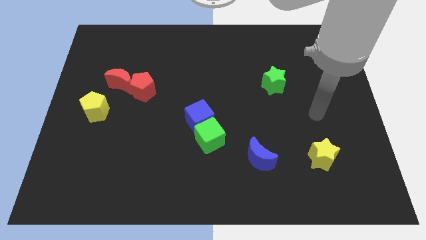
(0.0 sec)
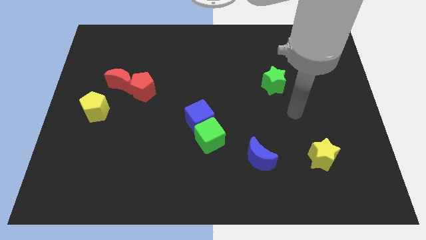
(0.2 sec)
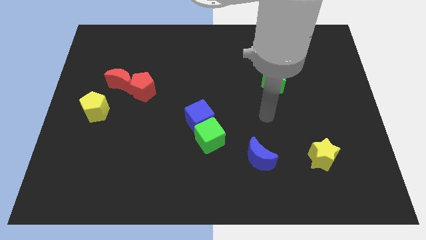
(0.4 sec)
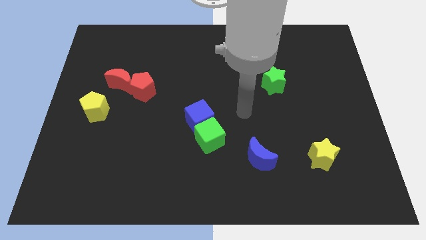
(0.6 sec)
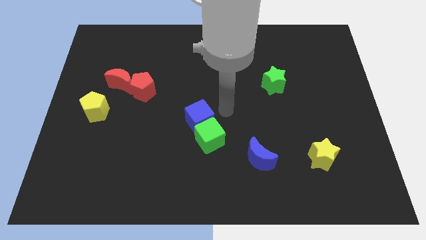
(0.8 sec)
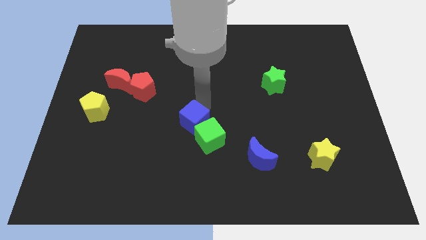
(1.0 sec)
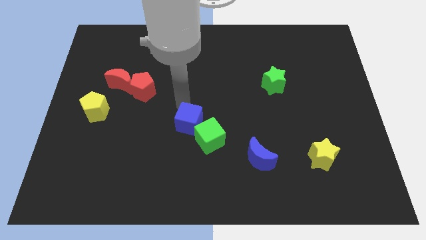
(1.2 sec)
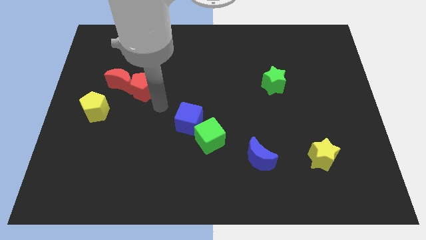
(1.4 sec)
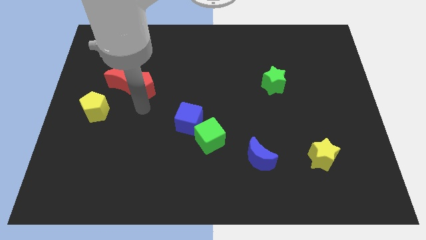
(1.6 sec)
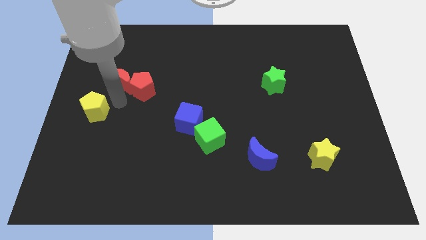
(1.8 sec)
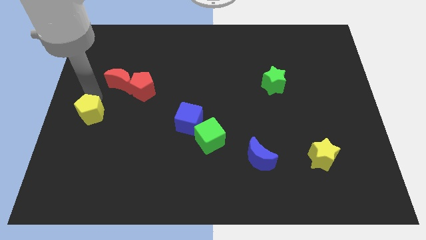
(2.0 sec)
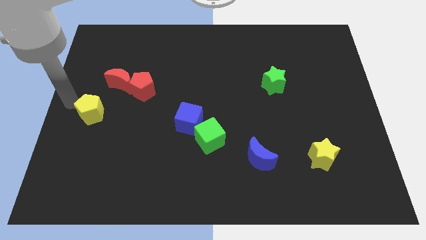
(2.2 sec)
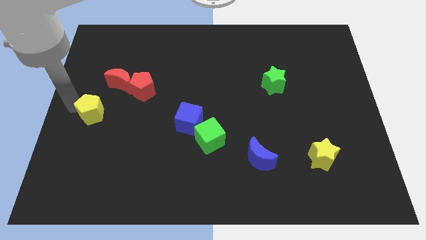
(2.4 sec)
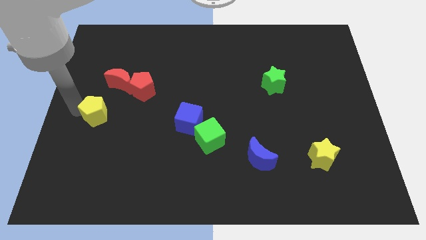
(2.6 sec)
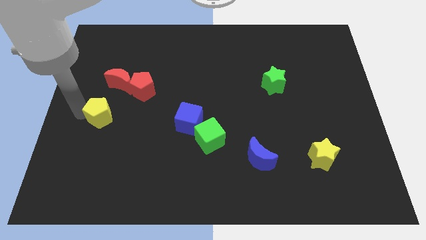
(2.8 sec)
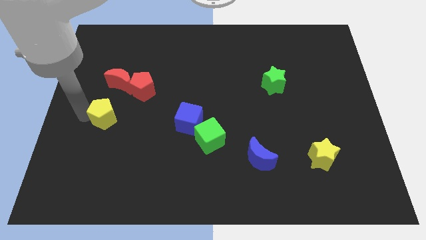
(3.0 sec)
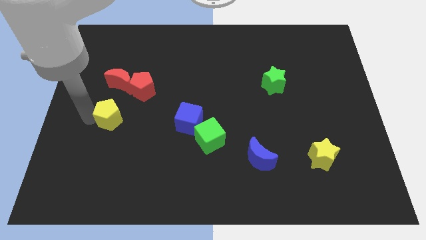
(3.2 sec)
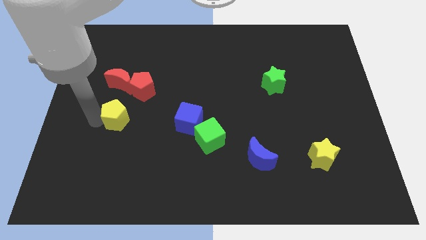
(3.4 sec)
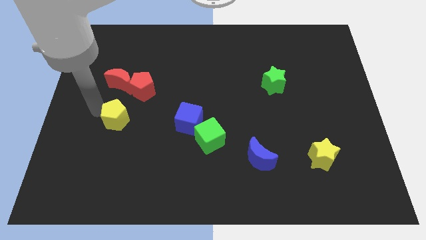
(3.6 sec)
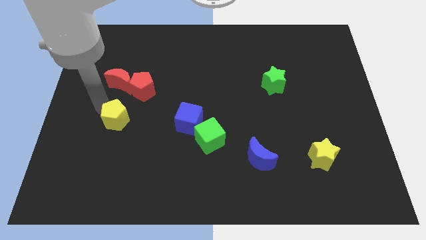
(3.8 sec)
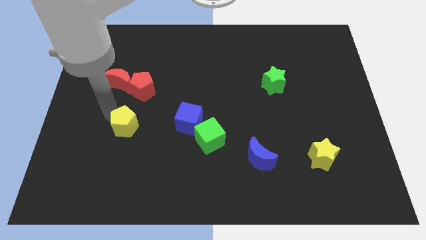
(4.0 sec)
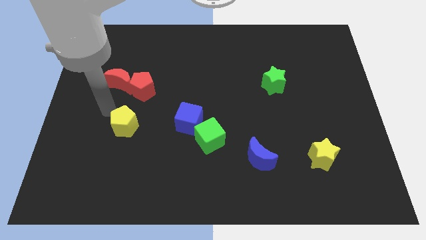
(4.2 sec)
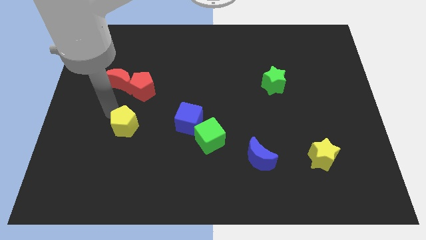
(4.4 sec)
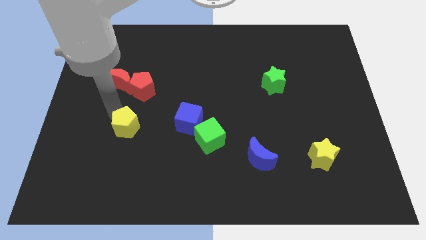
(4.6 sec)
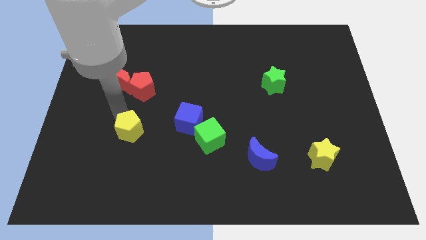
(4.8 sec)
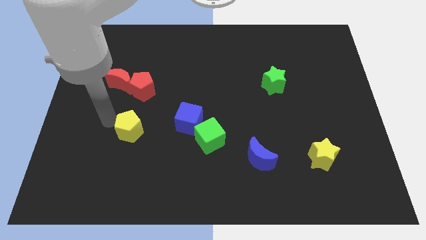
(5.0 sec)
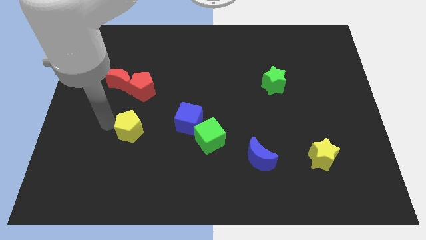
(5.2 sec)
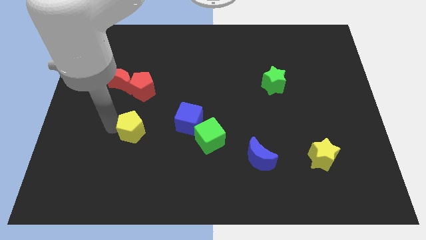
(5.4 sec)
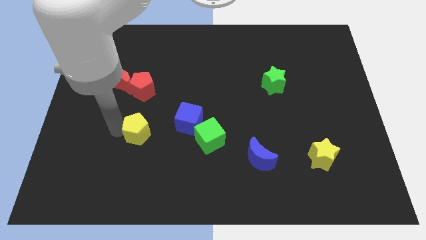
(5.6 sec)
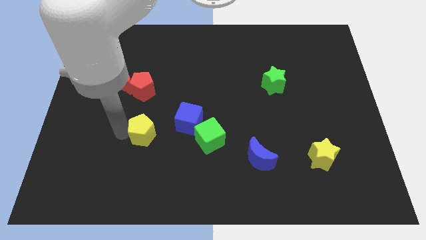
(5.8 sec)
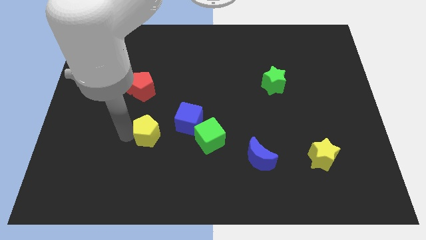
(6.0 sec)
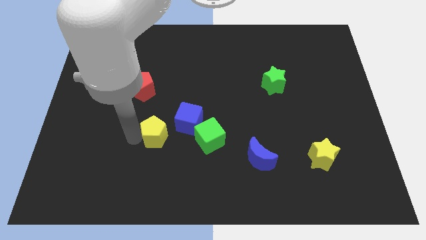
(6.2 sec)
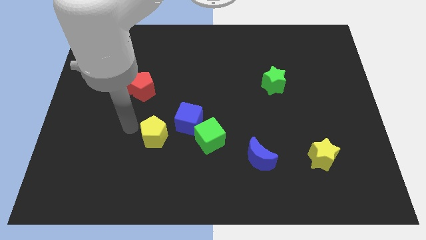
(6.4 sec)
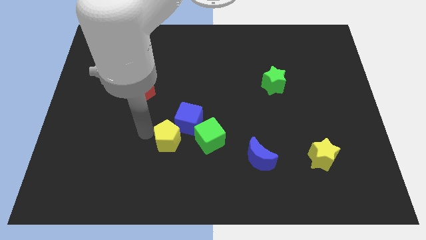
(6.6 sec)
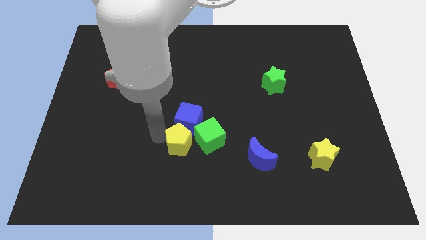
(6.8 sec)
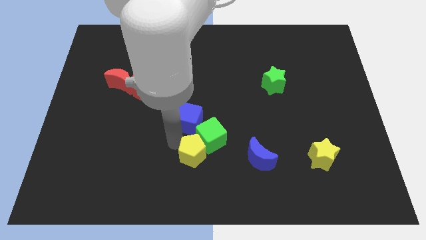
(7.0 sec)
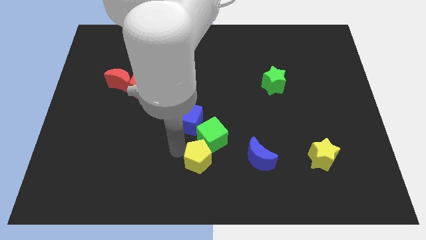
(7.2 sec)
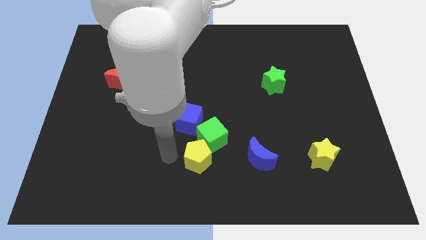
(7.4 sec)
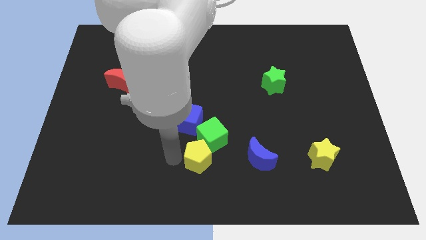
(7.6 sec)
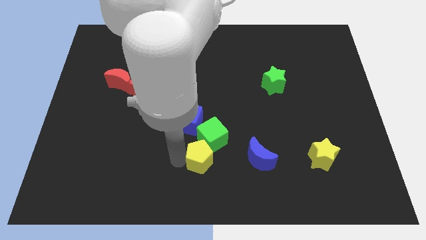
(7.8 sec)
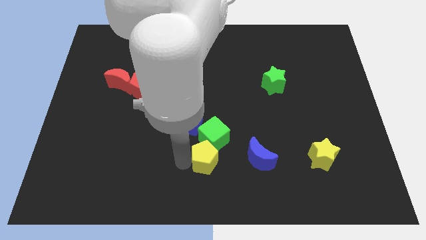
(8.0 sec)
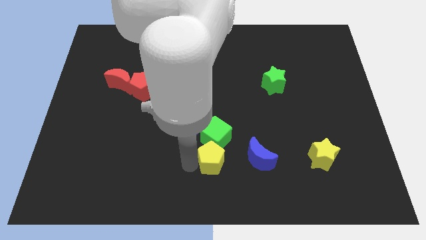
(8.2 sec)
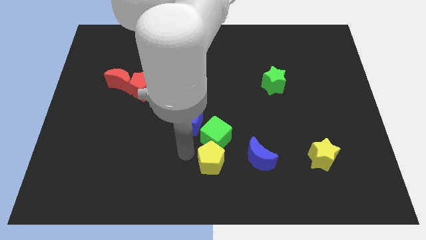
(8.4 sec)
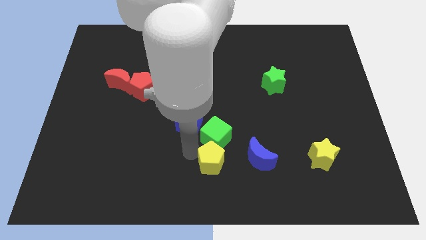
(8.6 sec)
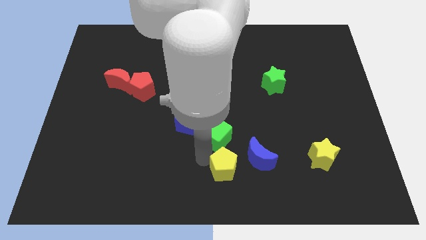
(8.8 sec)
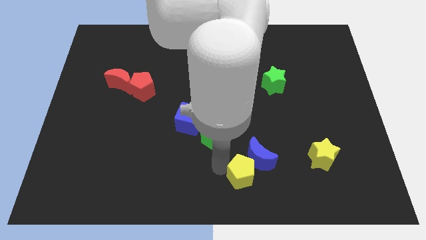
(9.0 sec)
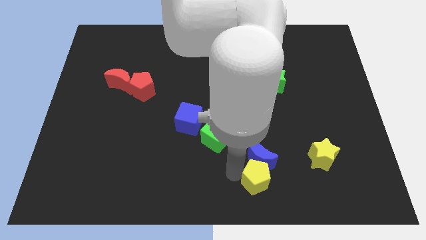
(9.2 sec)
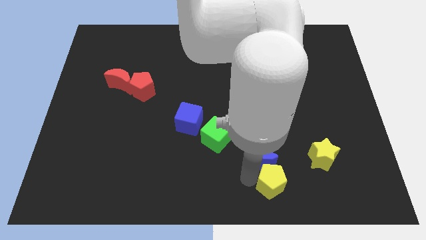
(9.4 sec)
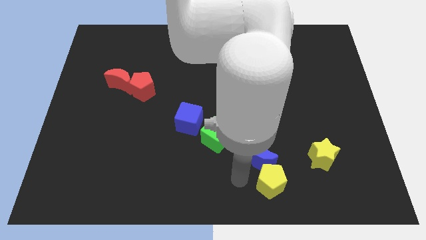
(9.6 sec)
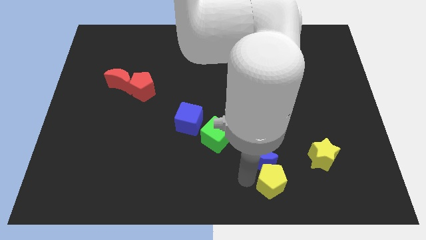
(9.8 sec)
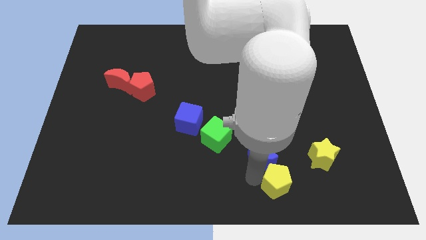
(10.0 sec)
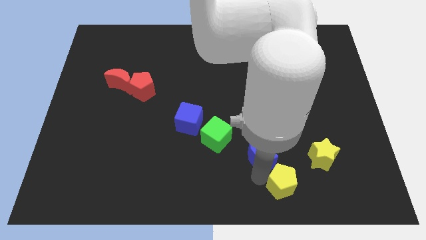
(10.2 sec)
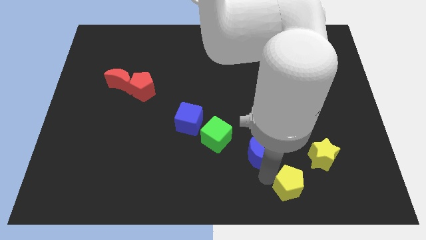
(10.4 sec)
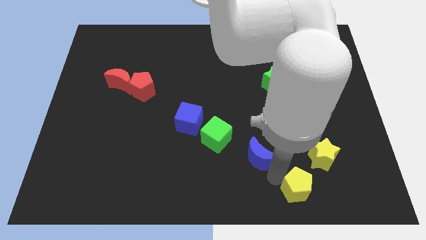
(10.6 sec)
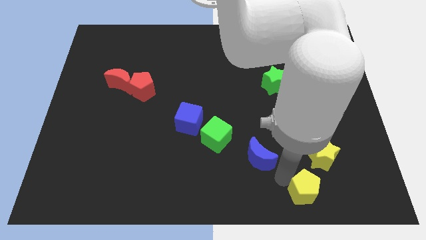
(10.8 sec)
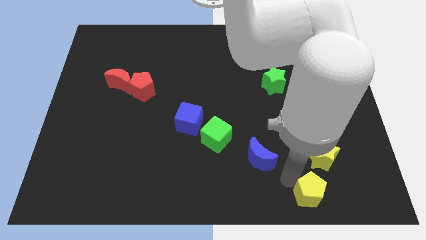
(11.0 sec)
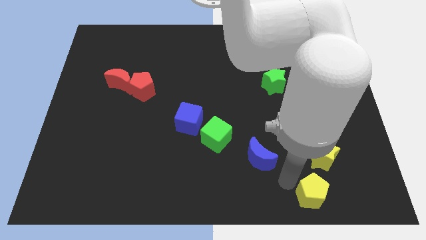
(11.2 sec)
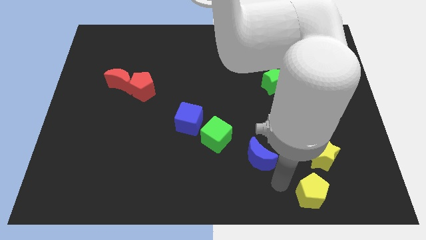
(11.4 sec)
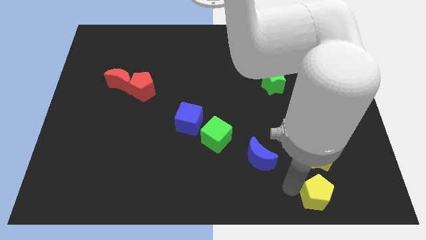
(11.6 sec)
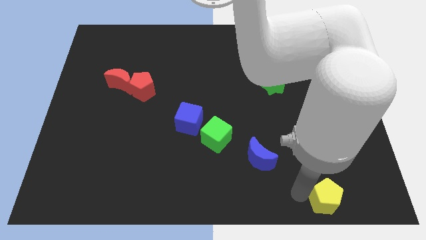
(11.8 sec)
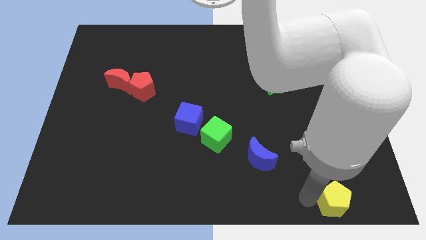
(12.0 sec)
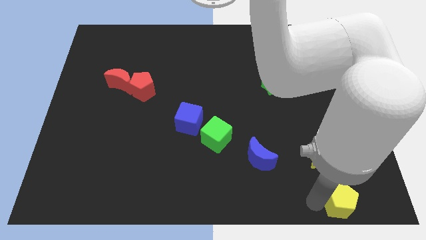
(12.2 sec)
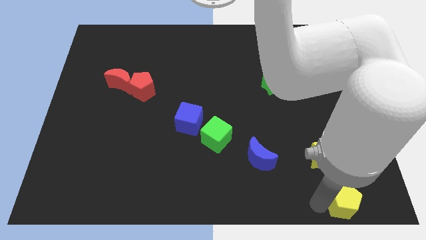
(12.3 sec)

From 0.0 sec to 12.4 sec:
put the yellow pentagon to the bottom right

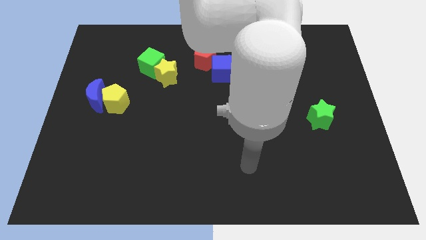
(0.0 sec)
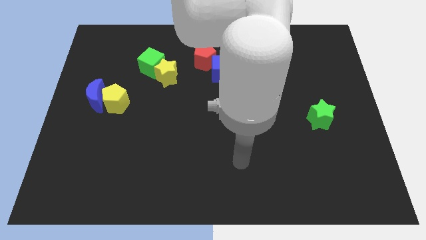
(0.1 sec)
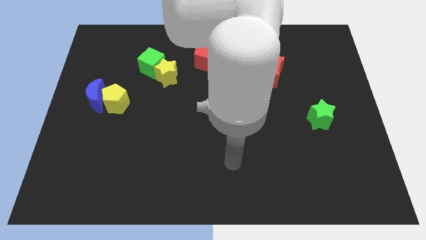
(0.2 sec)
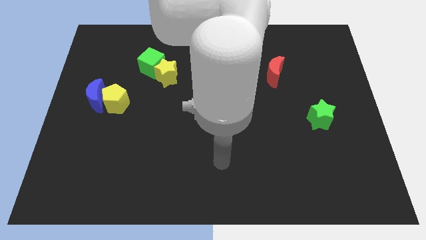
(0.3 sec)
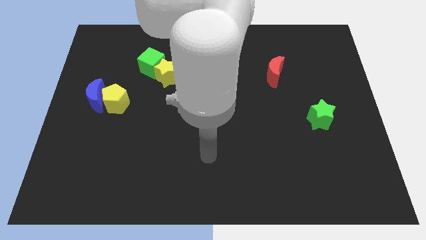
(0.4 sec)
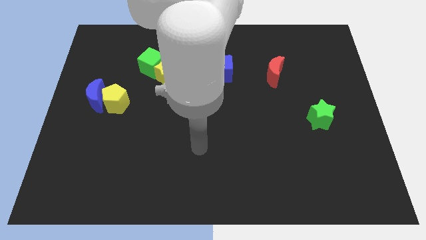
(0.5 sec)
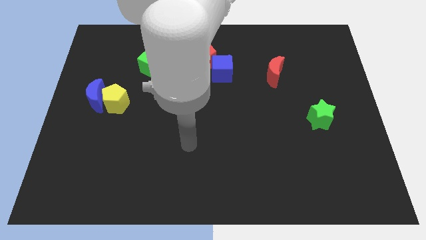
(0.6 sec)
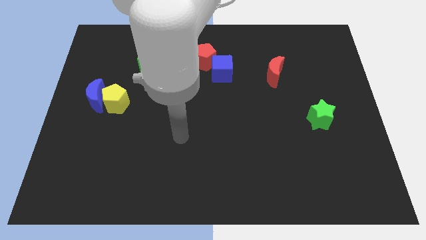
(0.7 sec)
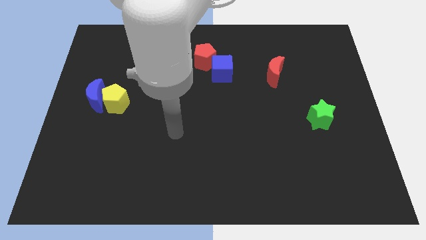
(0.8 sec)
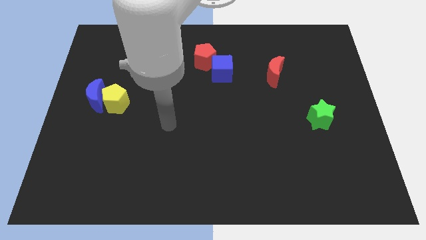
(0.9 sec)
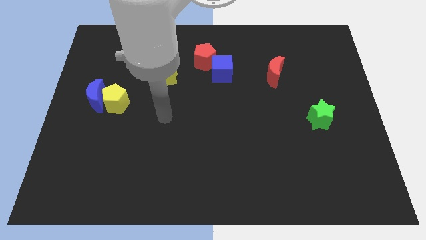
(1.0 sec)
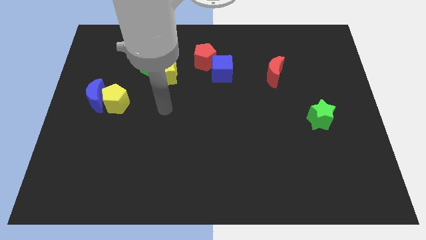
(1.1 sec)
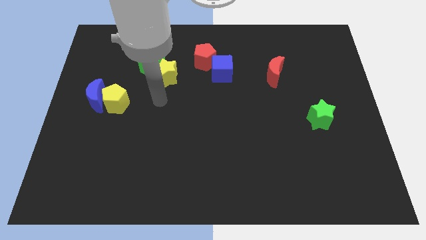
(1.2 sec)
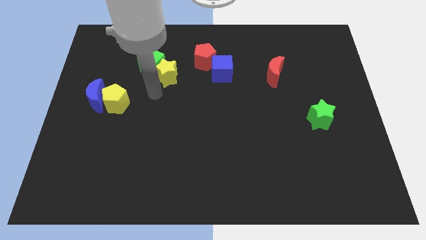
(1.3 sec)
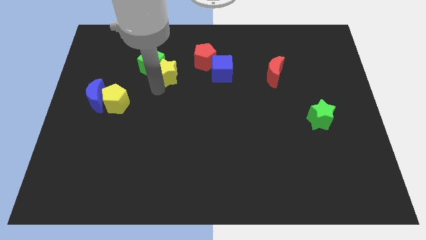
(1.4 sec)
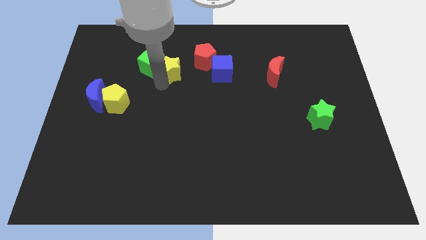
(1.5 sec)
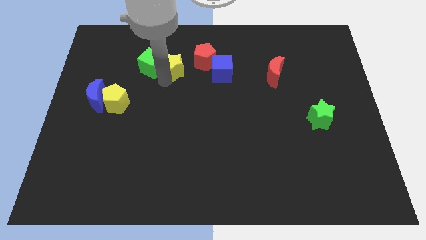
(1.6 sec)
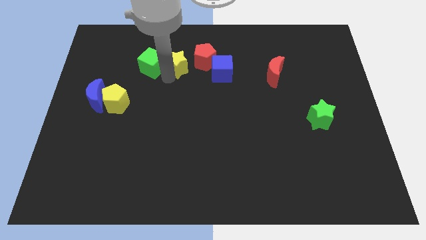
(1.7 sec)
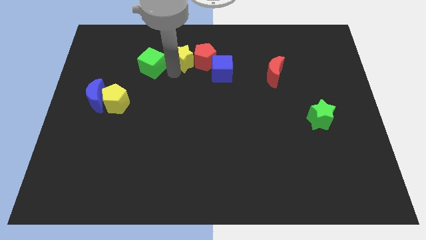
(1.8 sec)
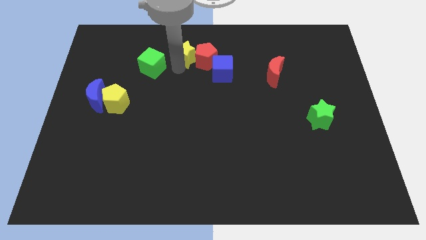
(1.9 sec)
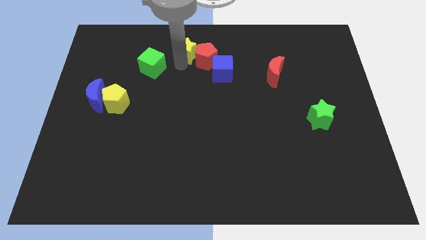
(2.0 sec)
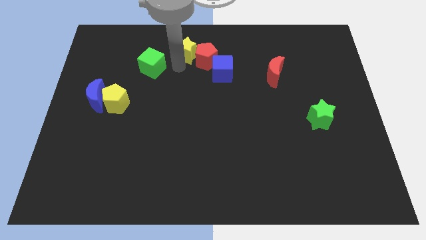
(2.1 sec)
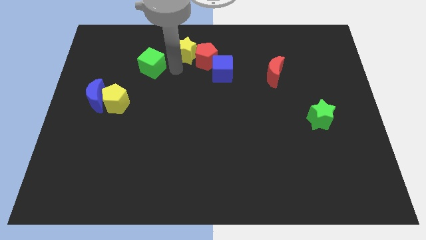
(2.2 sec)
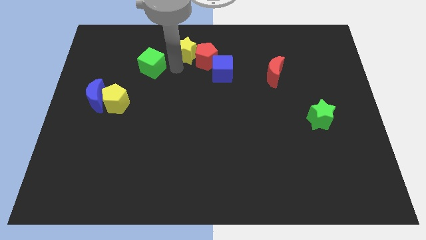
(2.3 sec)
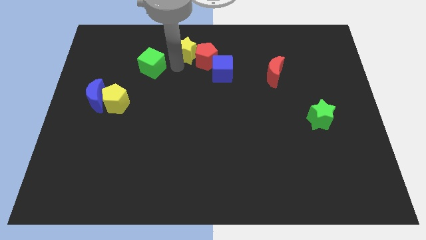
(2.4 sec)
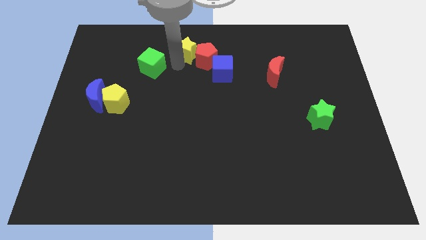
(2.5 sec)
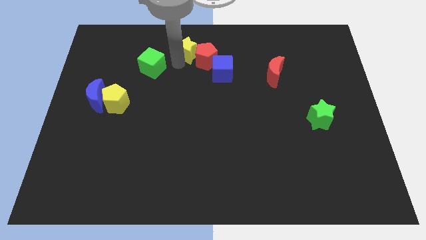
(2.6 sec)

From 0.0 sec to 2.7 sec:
slide the yellow star to the top
